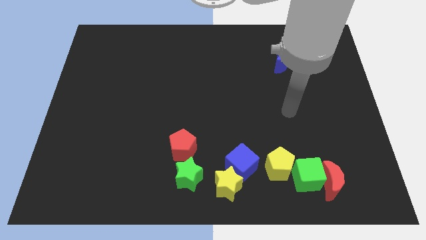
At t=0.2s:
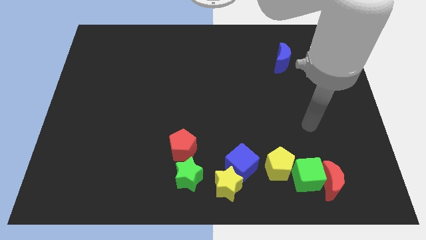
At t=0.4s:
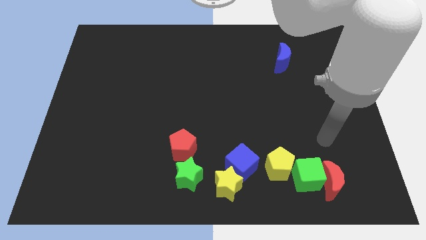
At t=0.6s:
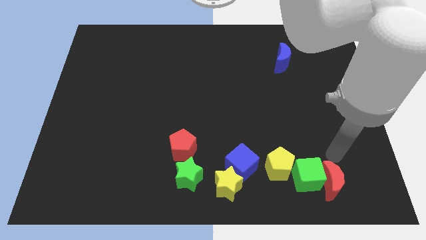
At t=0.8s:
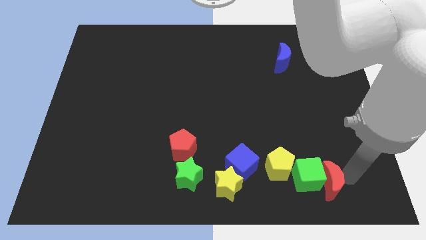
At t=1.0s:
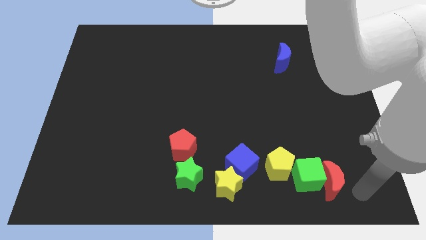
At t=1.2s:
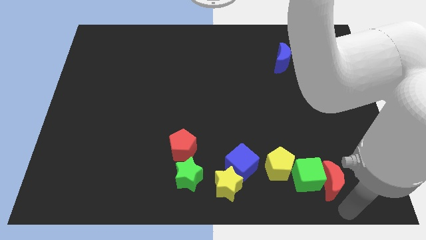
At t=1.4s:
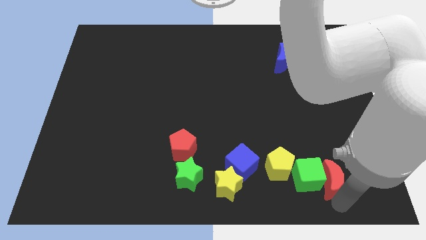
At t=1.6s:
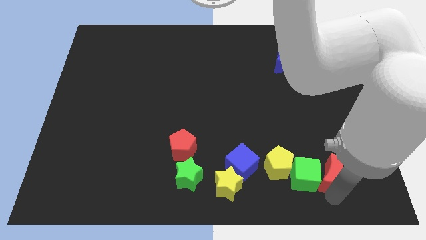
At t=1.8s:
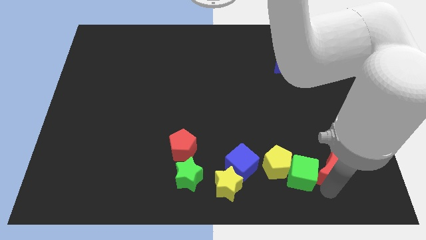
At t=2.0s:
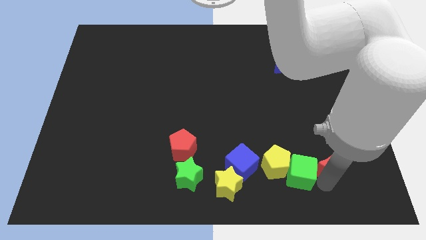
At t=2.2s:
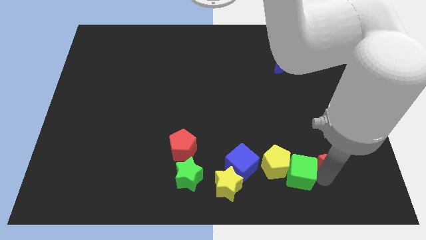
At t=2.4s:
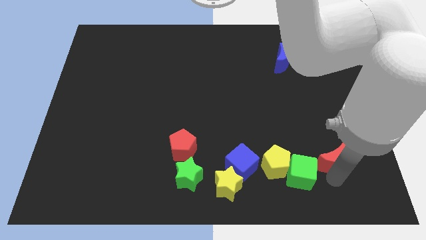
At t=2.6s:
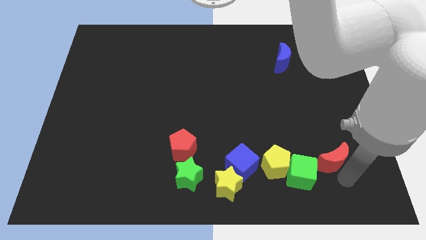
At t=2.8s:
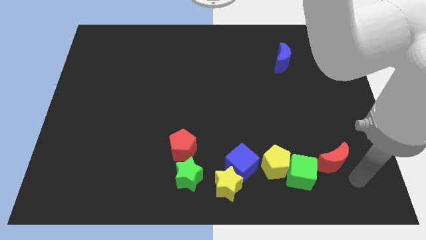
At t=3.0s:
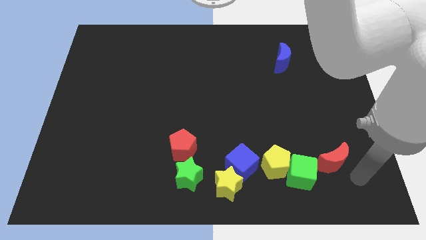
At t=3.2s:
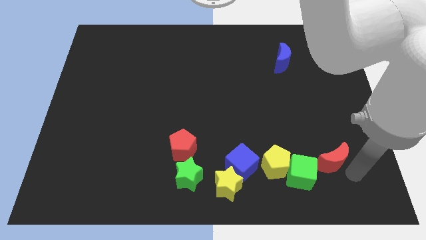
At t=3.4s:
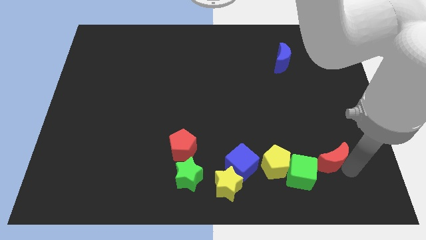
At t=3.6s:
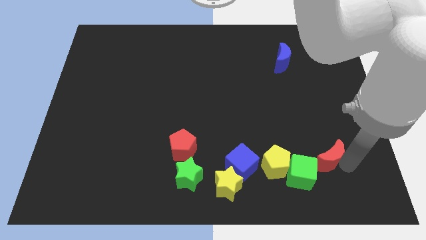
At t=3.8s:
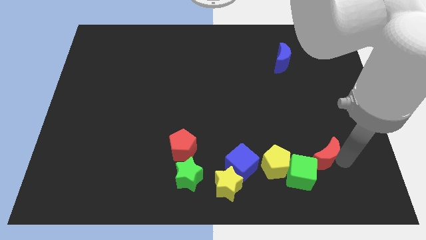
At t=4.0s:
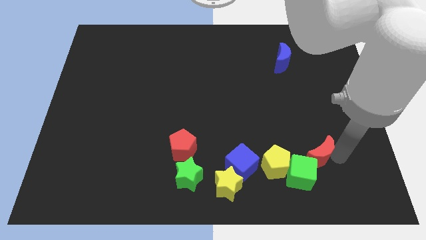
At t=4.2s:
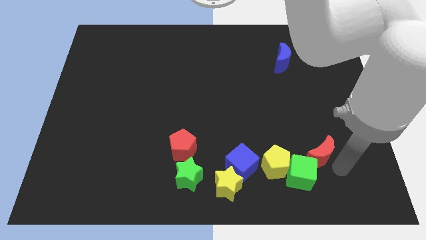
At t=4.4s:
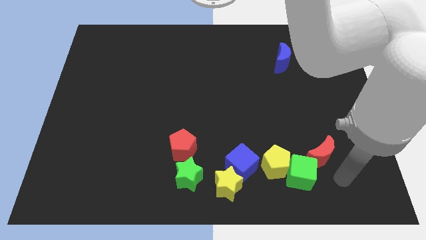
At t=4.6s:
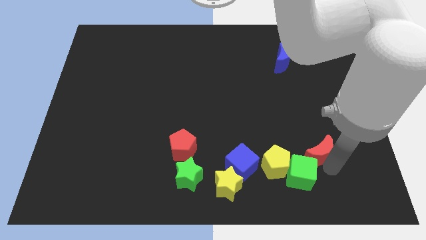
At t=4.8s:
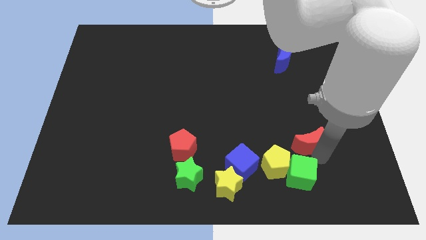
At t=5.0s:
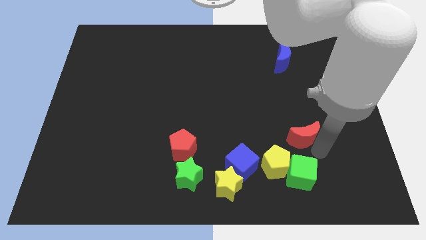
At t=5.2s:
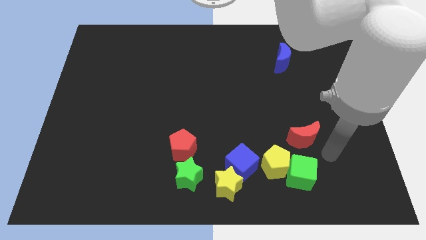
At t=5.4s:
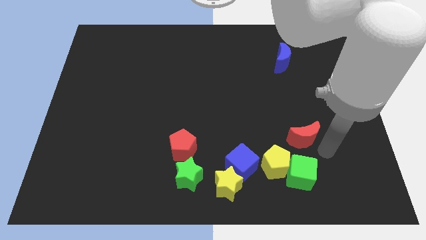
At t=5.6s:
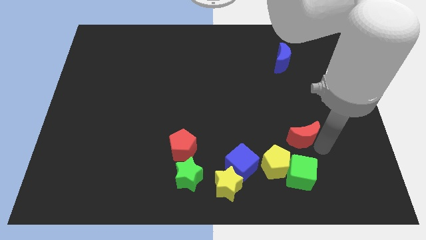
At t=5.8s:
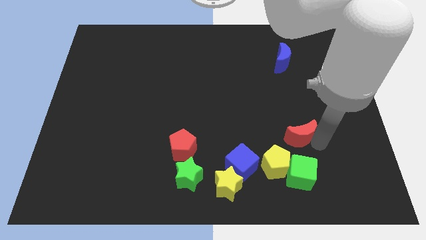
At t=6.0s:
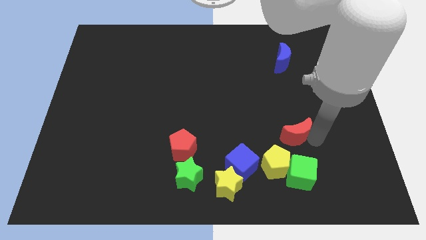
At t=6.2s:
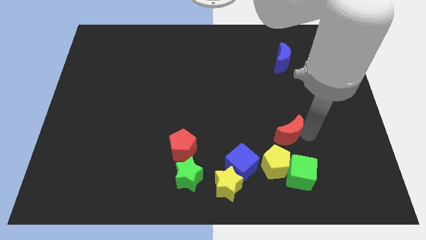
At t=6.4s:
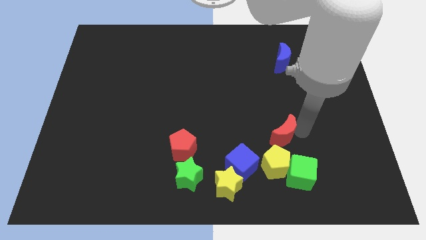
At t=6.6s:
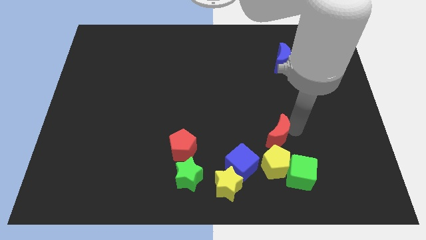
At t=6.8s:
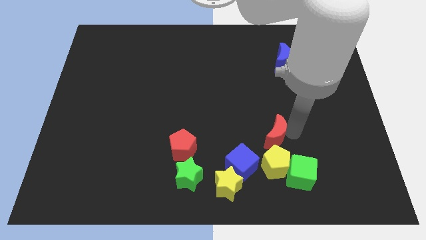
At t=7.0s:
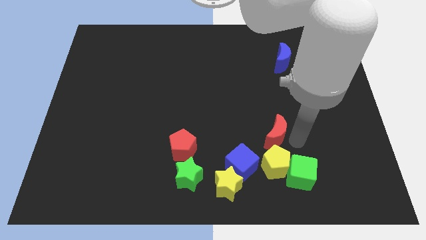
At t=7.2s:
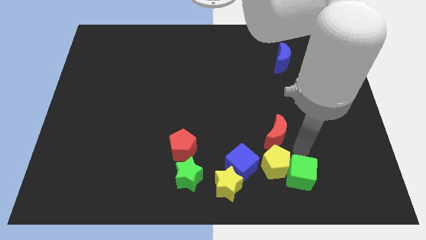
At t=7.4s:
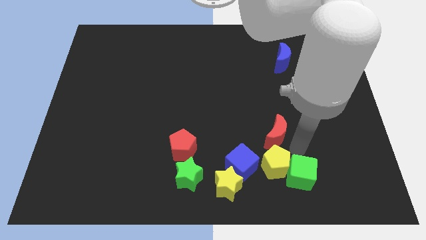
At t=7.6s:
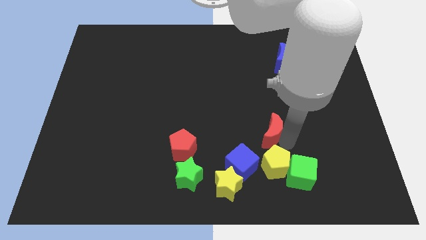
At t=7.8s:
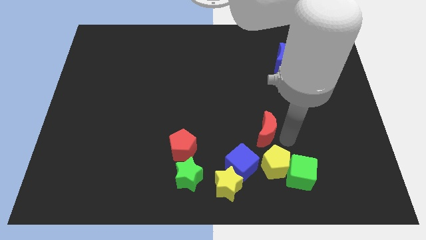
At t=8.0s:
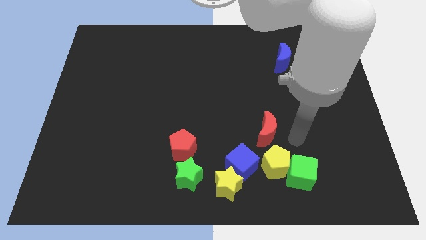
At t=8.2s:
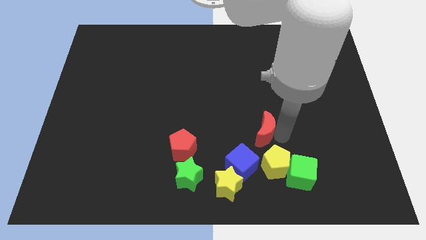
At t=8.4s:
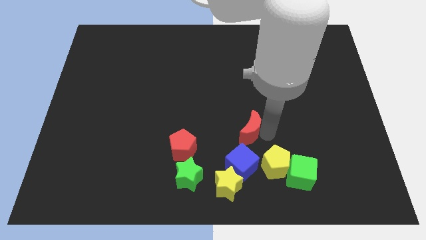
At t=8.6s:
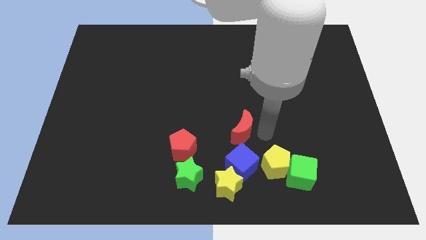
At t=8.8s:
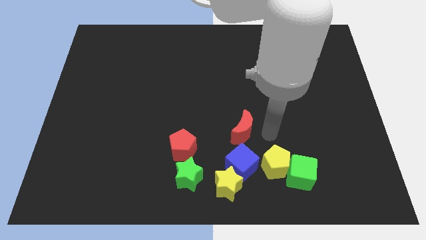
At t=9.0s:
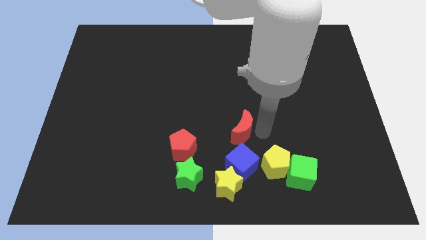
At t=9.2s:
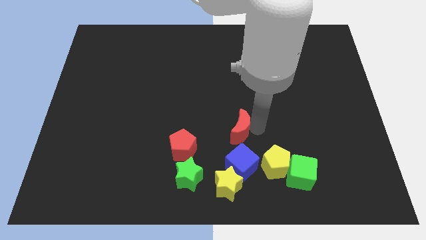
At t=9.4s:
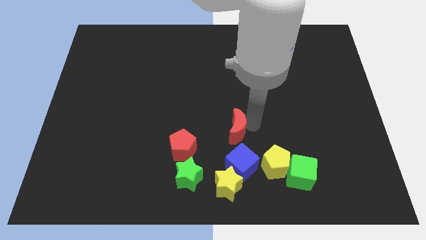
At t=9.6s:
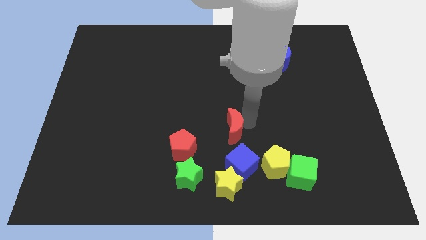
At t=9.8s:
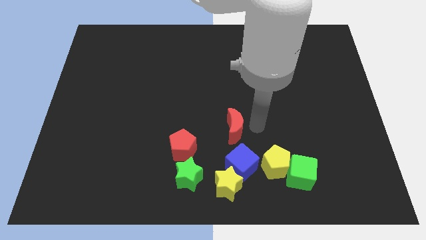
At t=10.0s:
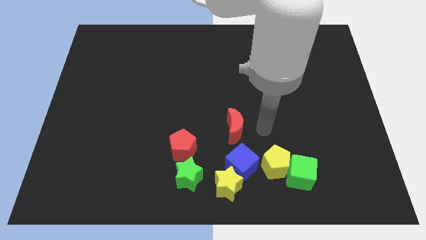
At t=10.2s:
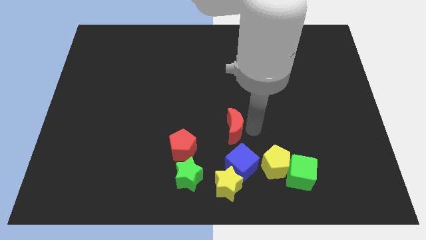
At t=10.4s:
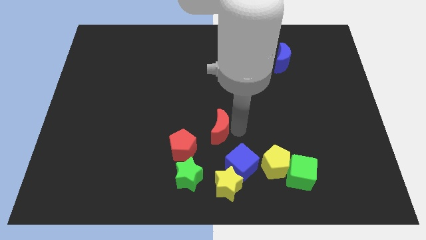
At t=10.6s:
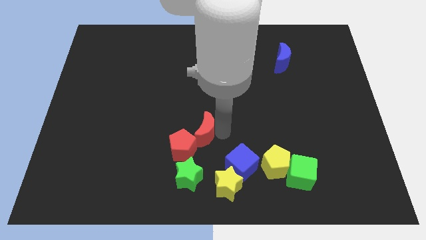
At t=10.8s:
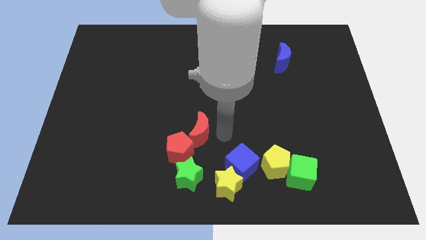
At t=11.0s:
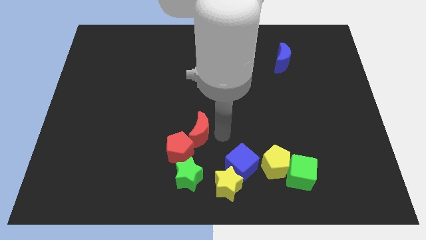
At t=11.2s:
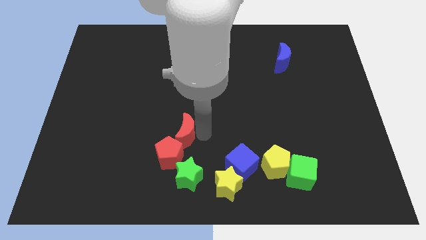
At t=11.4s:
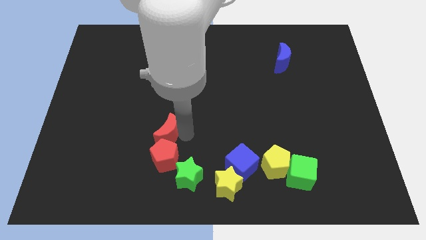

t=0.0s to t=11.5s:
move the red moon to the top left of the red pentagon
